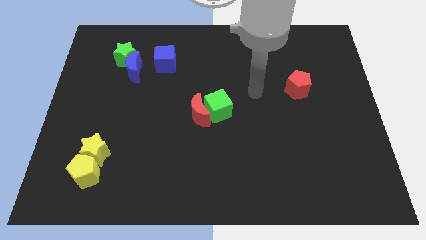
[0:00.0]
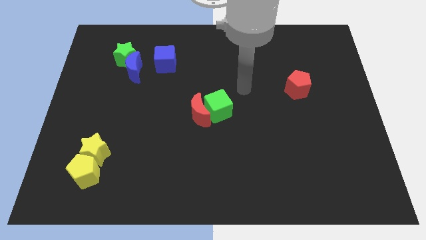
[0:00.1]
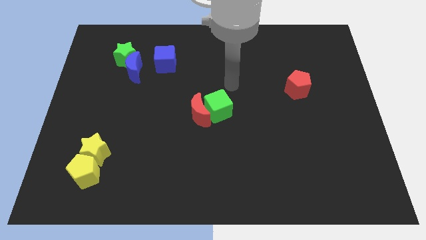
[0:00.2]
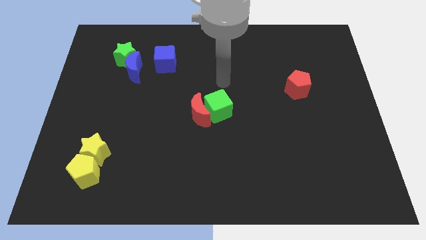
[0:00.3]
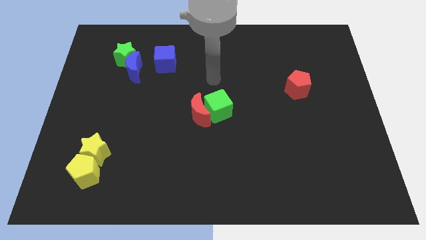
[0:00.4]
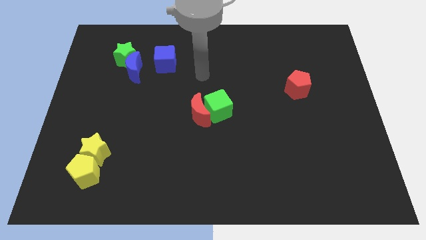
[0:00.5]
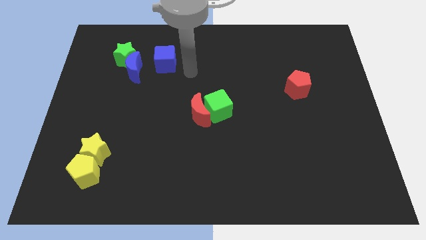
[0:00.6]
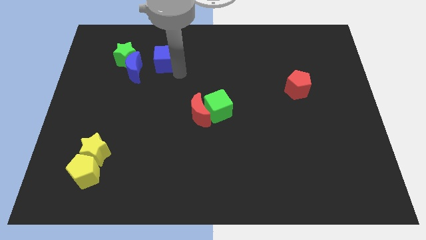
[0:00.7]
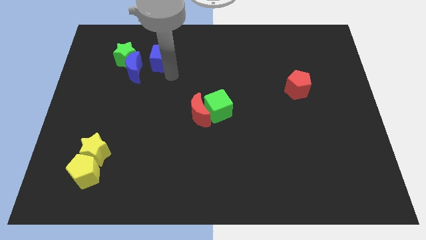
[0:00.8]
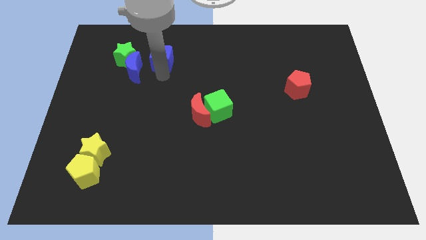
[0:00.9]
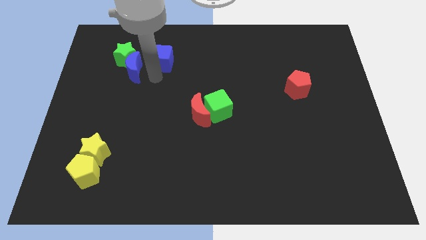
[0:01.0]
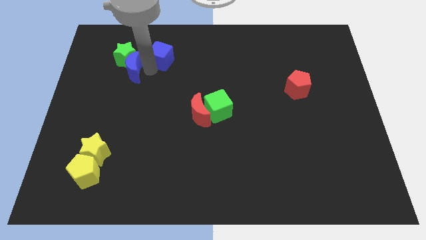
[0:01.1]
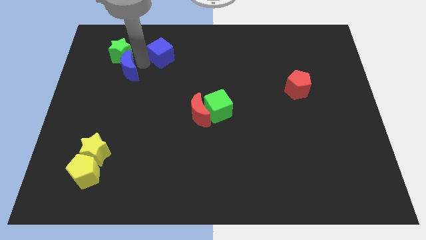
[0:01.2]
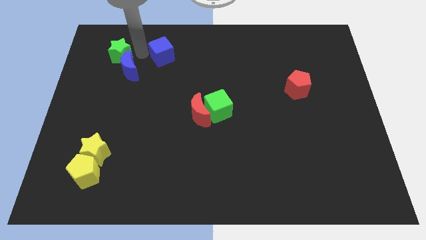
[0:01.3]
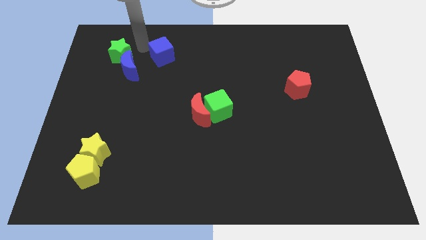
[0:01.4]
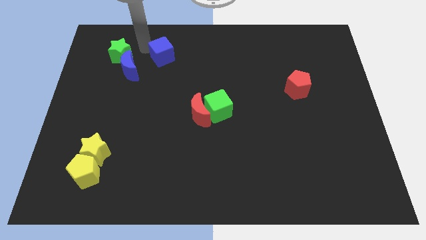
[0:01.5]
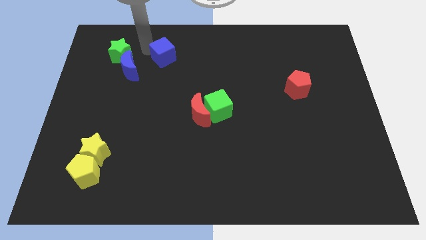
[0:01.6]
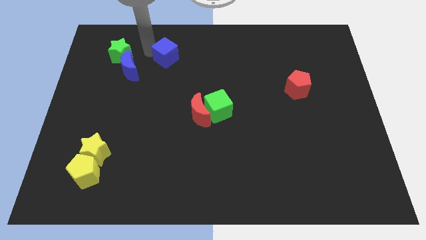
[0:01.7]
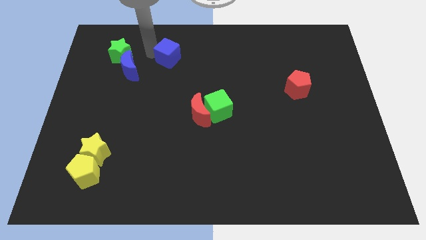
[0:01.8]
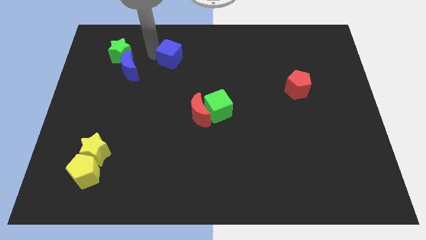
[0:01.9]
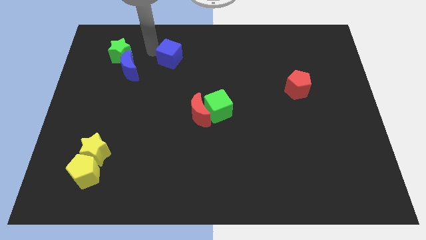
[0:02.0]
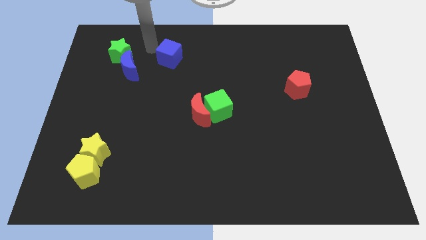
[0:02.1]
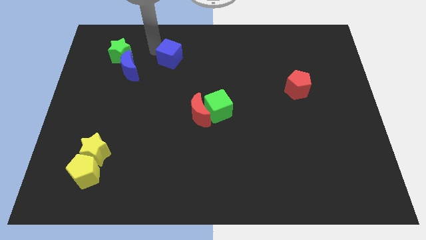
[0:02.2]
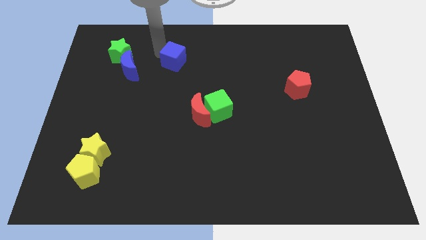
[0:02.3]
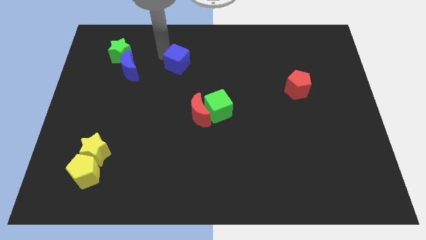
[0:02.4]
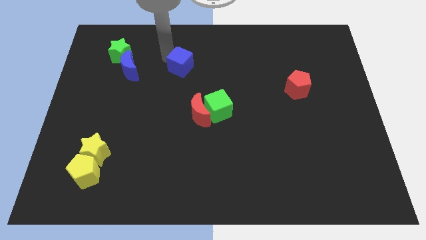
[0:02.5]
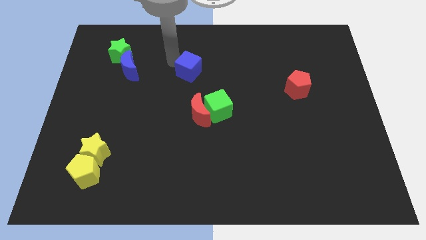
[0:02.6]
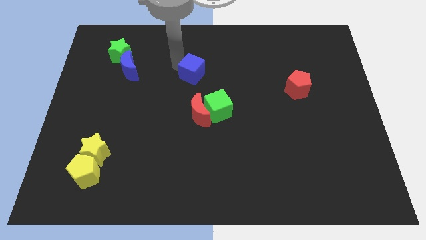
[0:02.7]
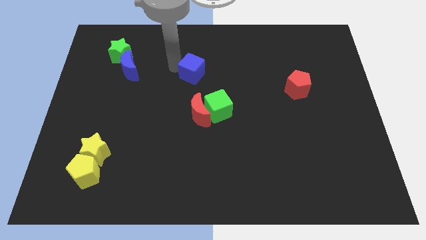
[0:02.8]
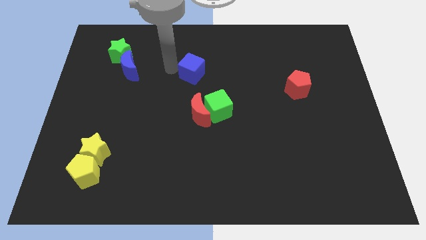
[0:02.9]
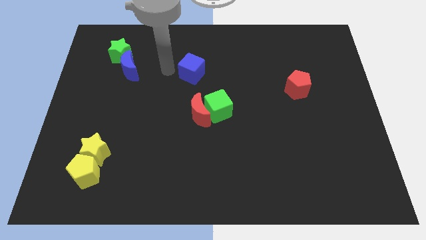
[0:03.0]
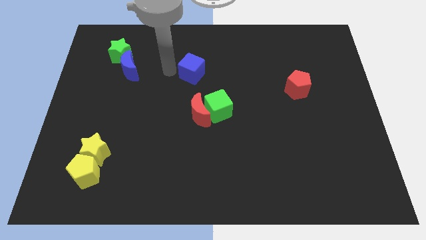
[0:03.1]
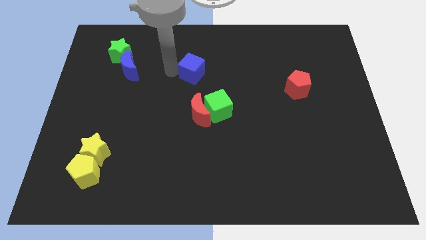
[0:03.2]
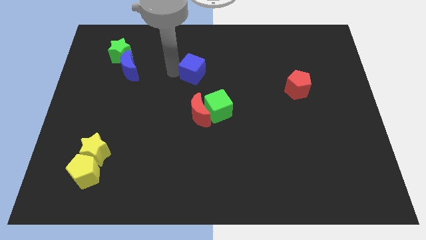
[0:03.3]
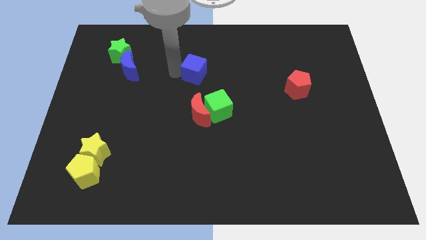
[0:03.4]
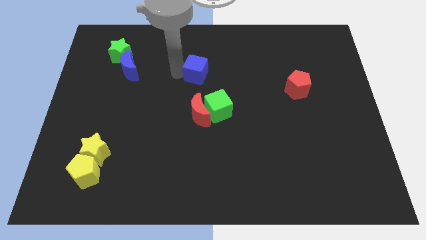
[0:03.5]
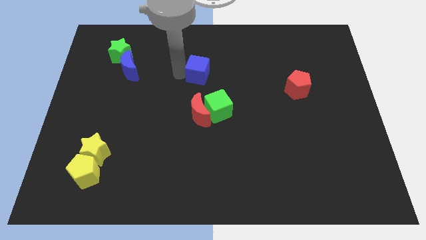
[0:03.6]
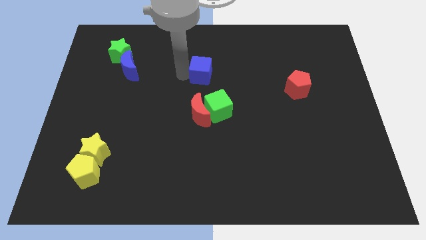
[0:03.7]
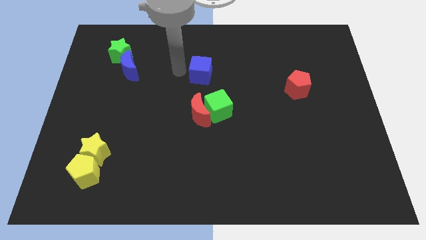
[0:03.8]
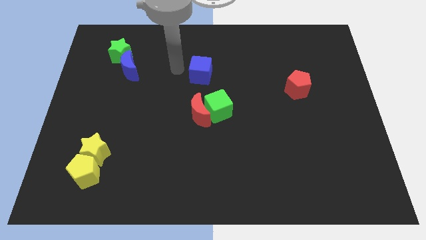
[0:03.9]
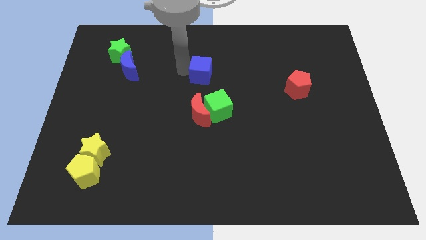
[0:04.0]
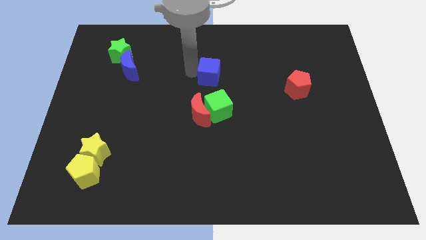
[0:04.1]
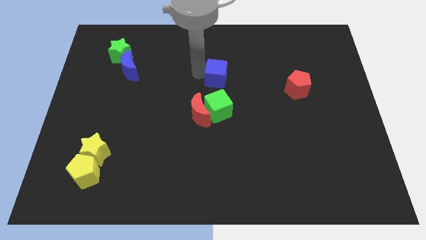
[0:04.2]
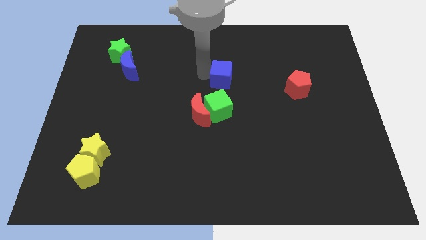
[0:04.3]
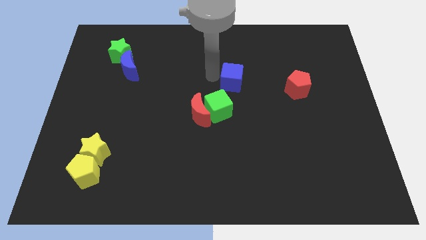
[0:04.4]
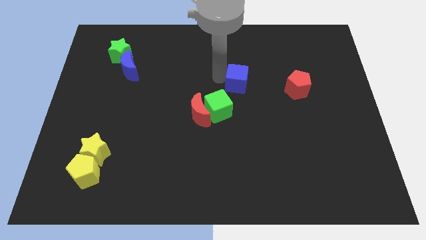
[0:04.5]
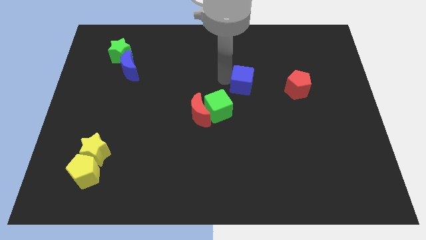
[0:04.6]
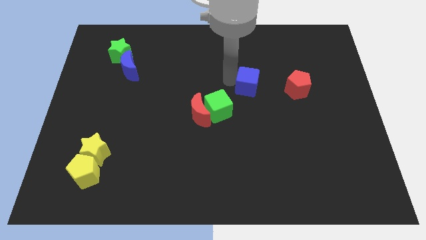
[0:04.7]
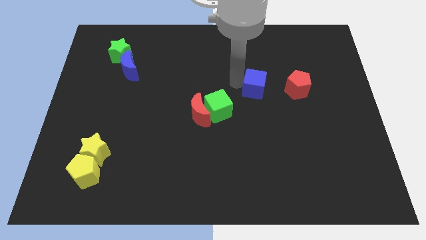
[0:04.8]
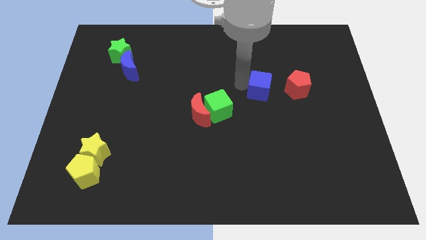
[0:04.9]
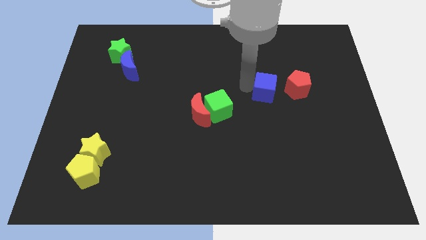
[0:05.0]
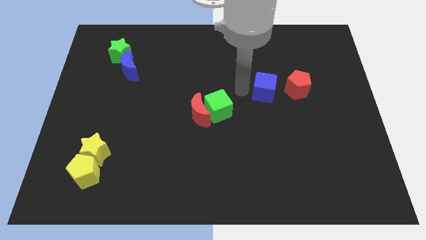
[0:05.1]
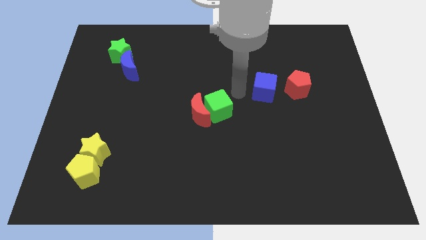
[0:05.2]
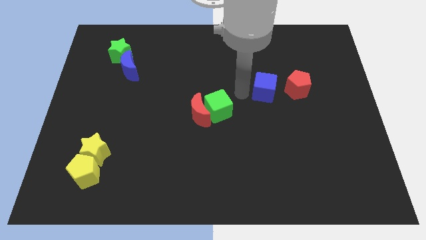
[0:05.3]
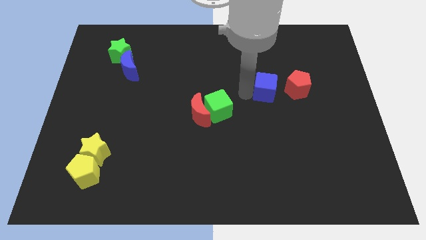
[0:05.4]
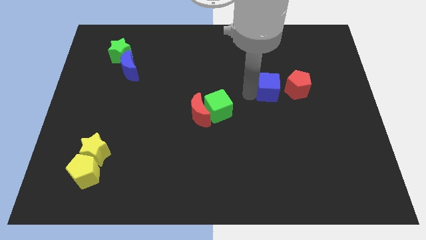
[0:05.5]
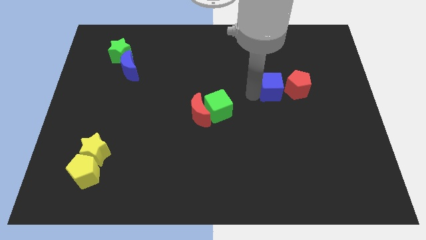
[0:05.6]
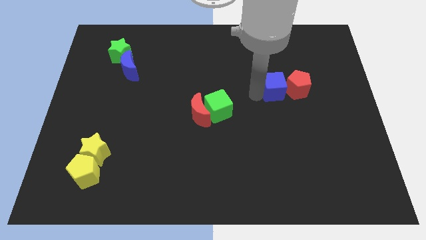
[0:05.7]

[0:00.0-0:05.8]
put the blue cube towards the red pentagon

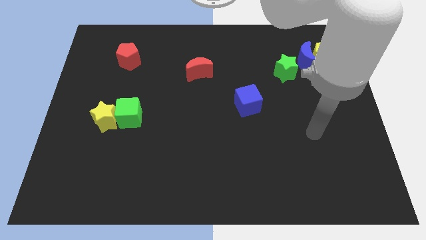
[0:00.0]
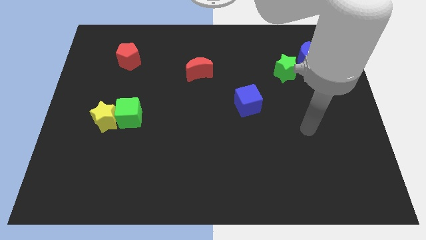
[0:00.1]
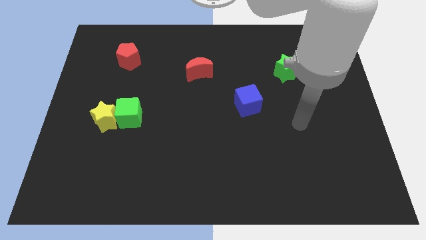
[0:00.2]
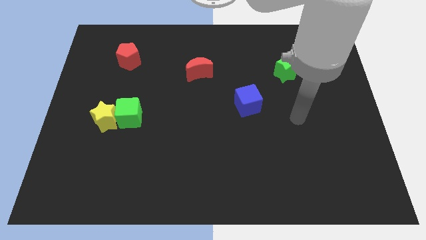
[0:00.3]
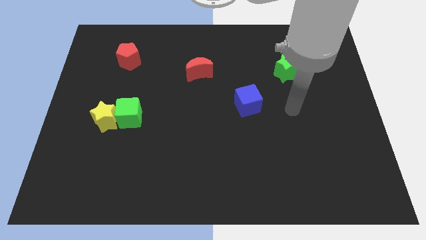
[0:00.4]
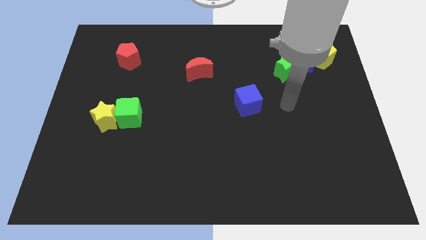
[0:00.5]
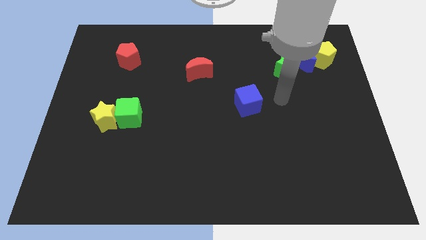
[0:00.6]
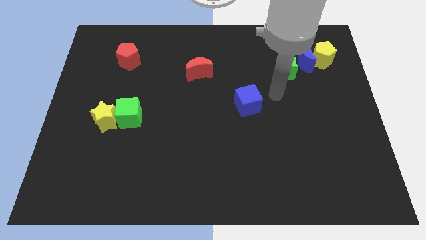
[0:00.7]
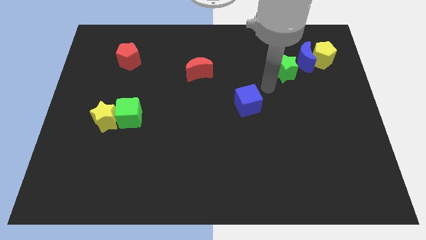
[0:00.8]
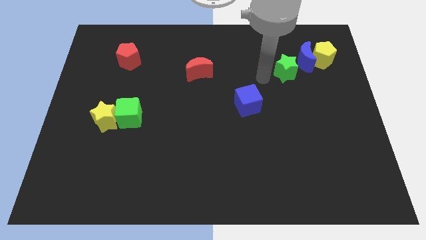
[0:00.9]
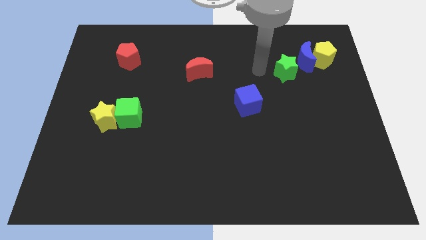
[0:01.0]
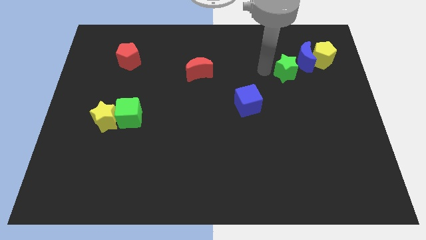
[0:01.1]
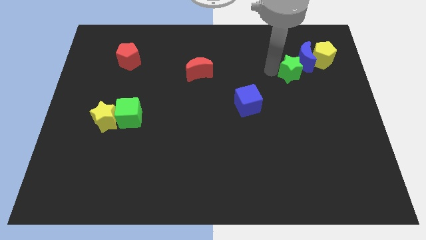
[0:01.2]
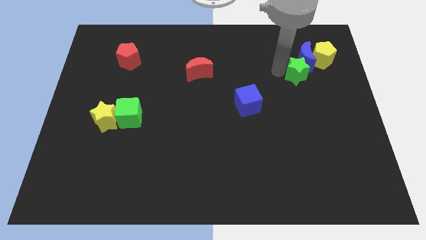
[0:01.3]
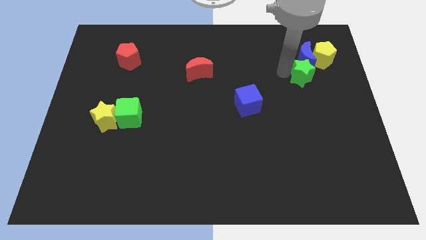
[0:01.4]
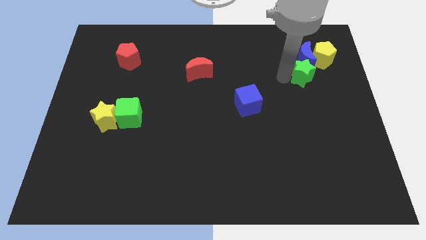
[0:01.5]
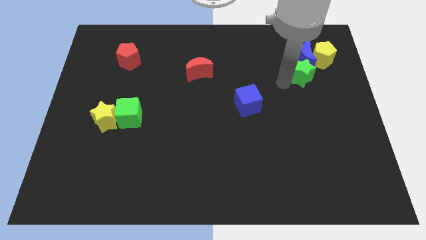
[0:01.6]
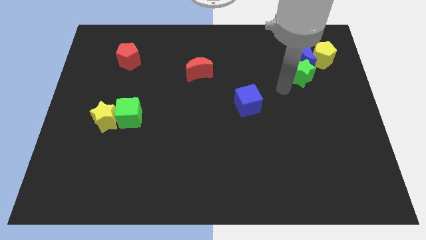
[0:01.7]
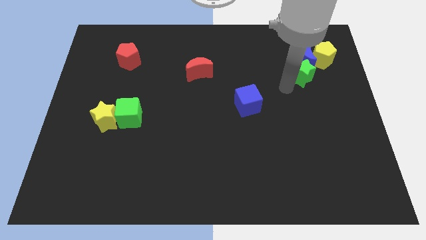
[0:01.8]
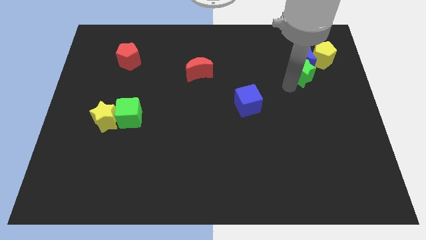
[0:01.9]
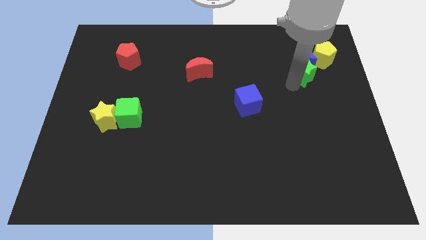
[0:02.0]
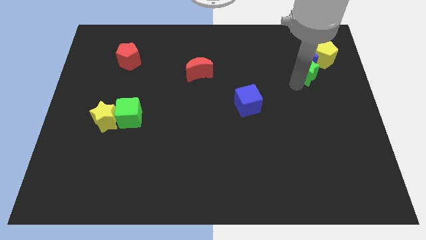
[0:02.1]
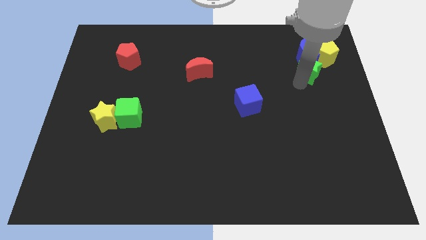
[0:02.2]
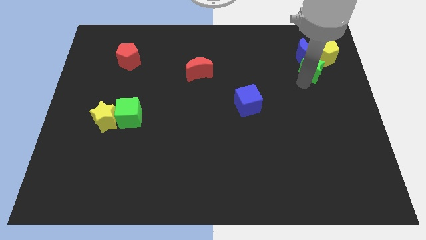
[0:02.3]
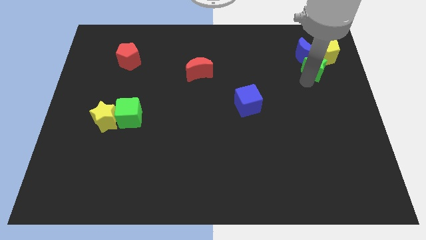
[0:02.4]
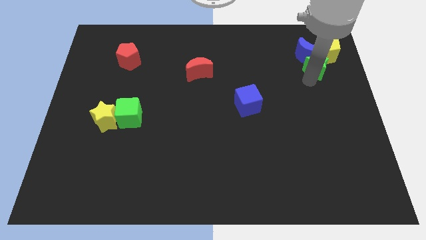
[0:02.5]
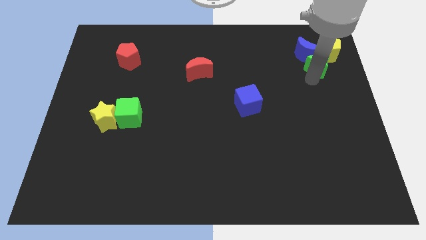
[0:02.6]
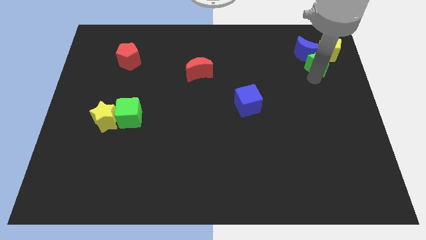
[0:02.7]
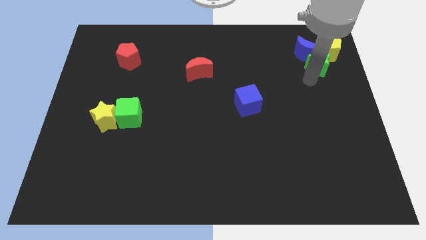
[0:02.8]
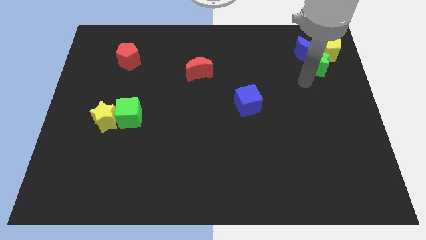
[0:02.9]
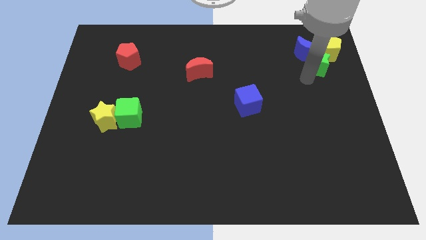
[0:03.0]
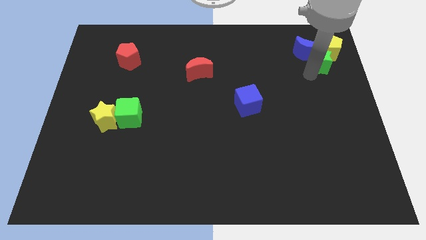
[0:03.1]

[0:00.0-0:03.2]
push the green star to the yellow pentagon
